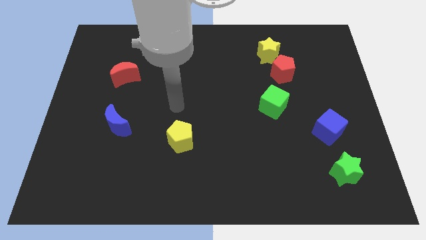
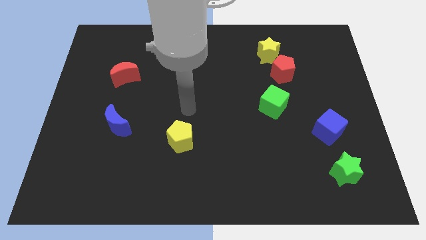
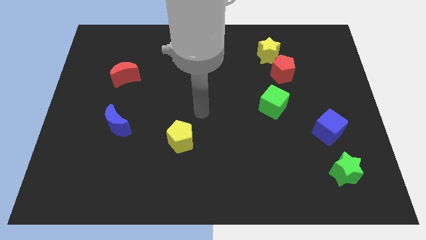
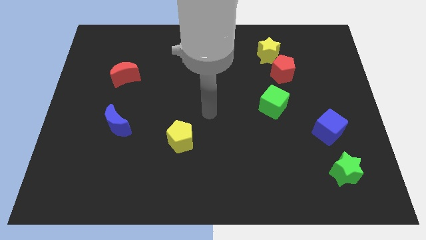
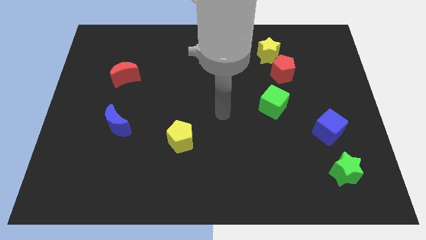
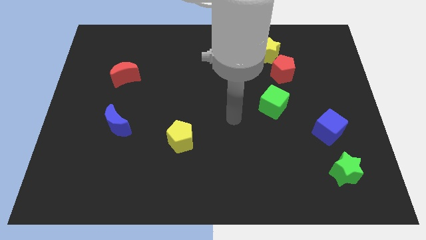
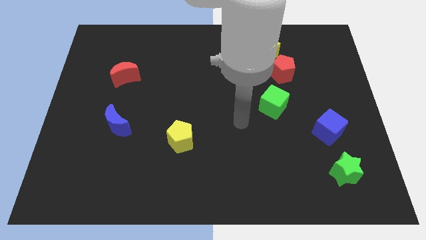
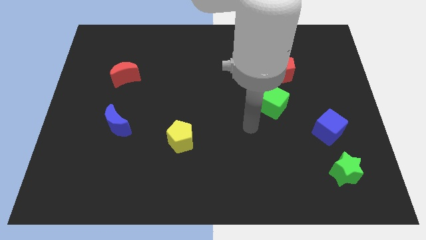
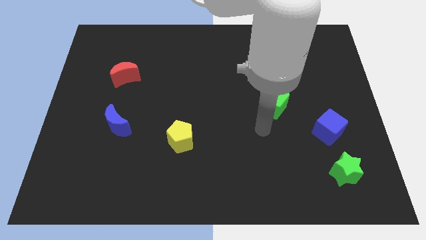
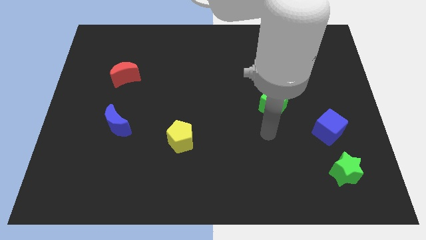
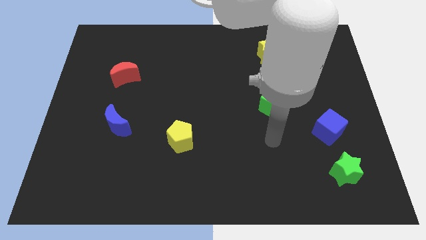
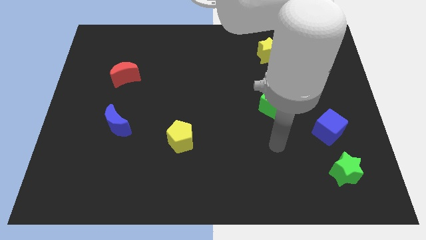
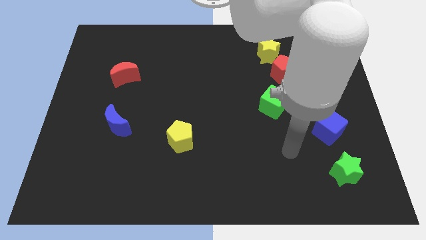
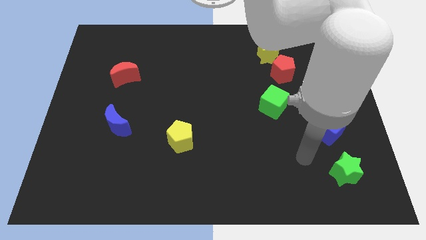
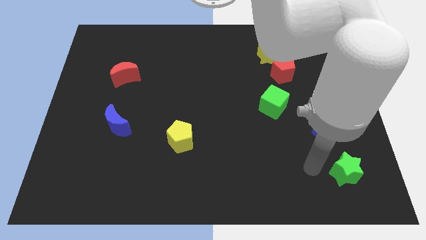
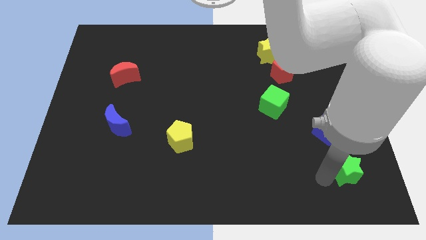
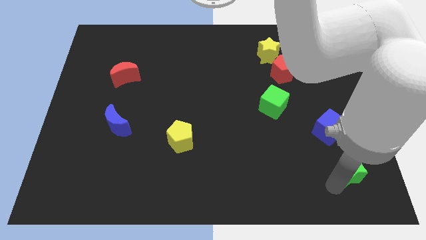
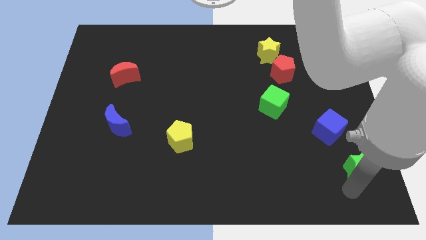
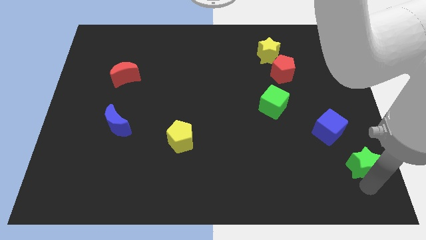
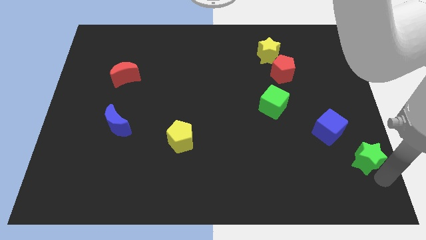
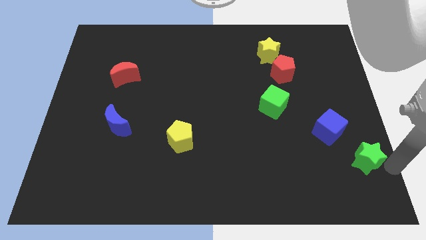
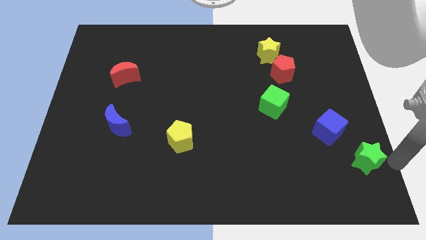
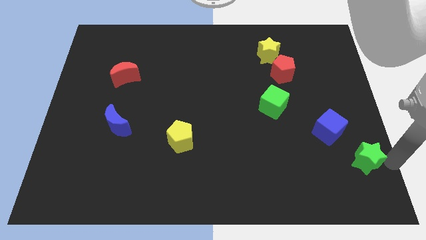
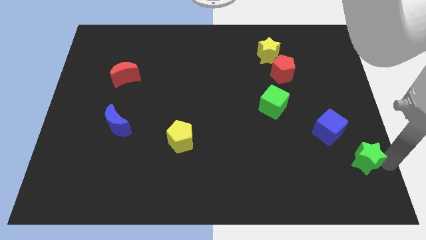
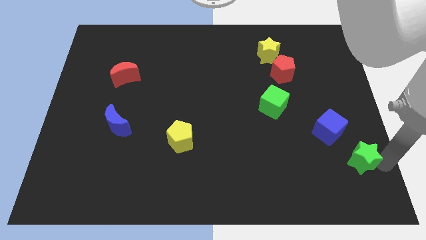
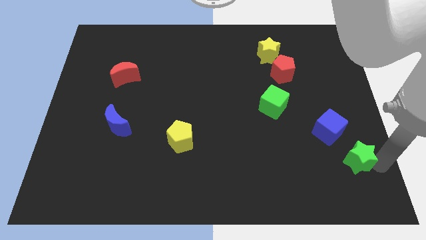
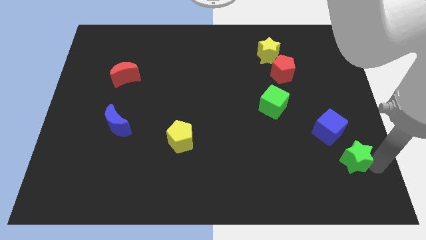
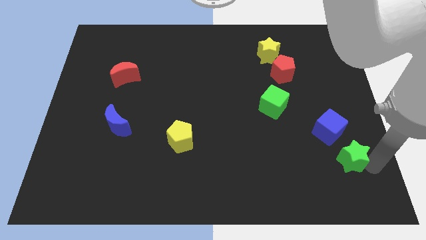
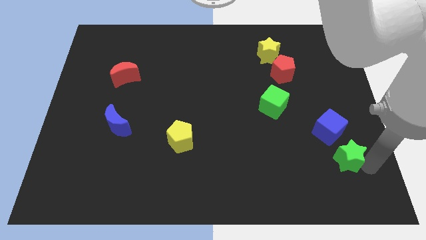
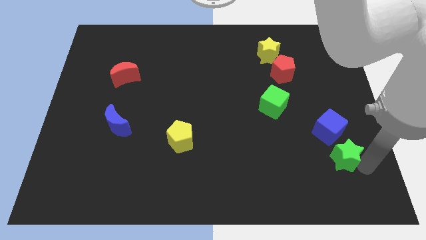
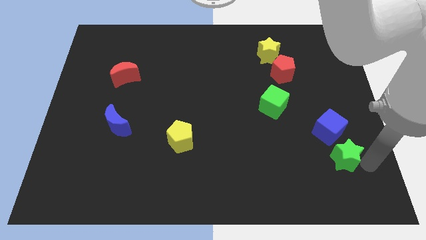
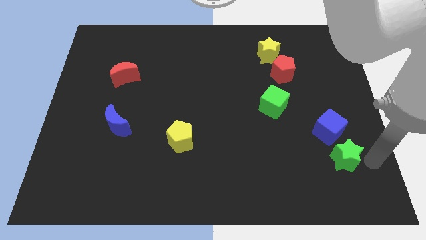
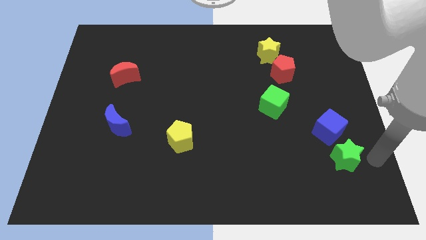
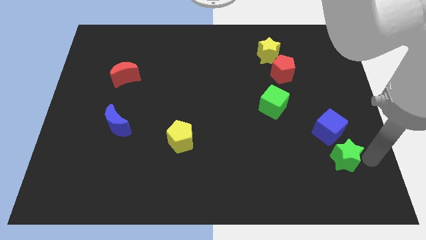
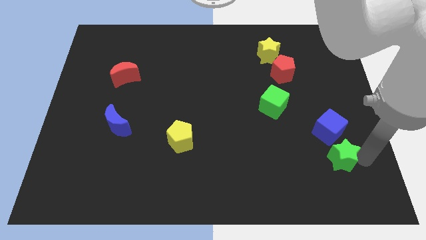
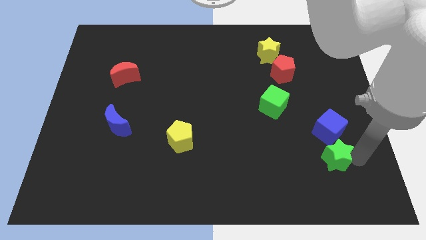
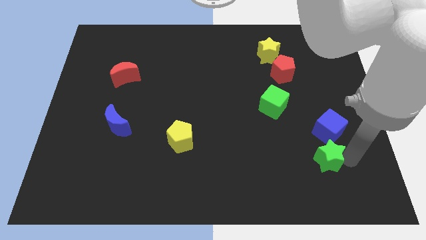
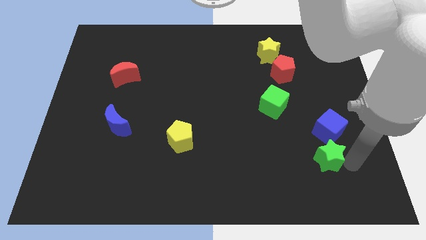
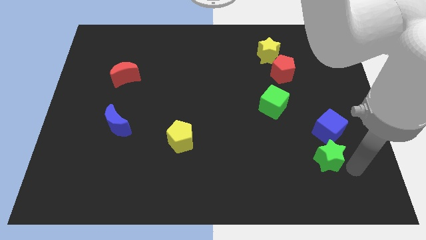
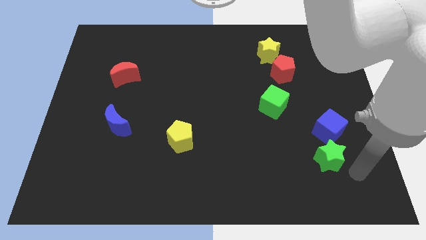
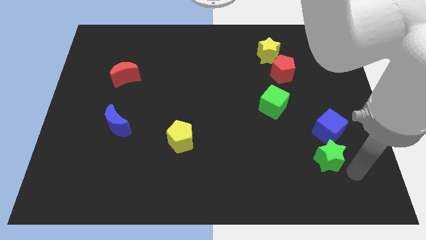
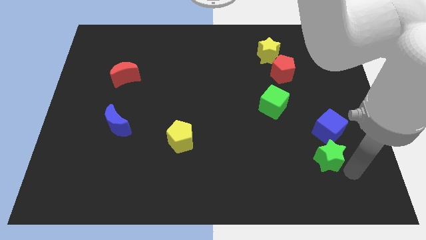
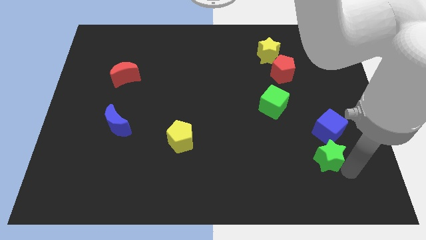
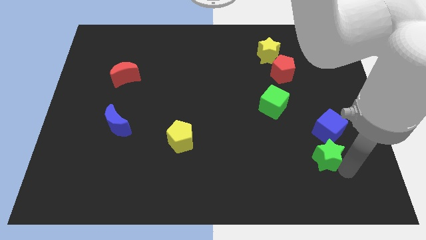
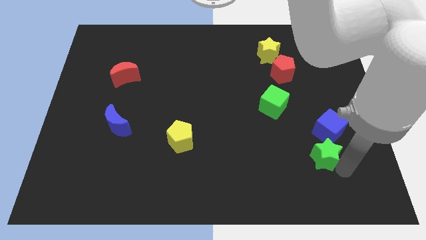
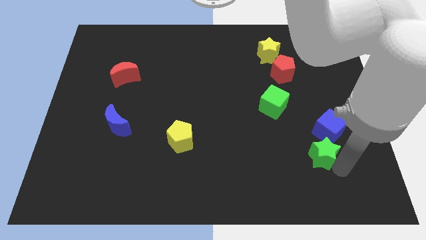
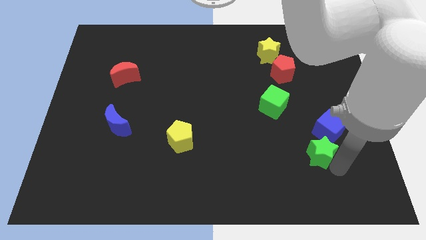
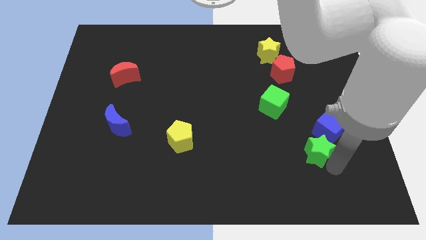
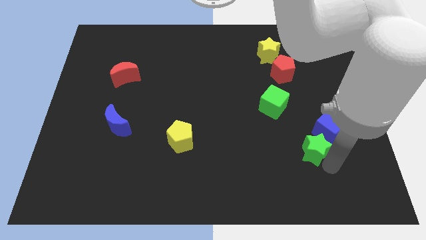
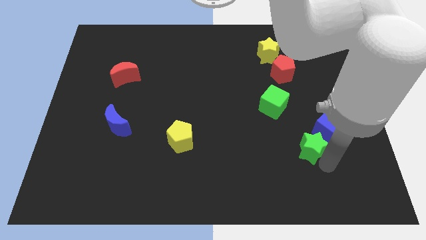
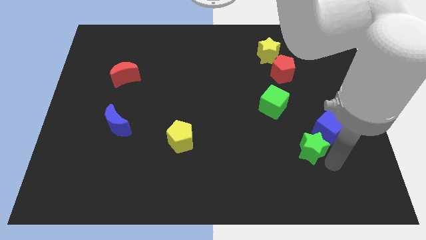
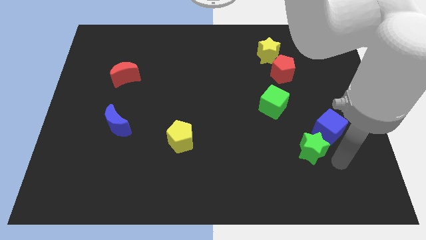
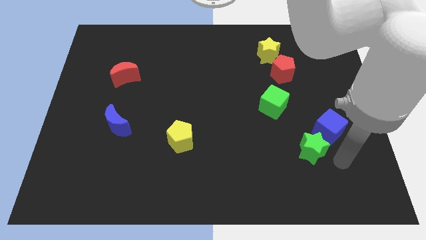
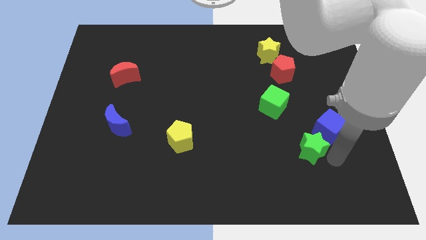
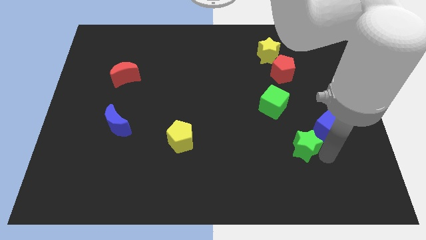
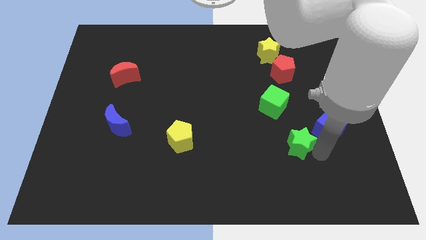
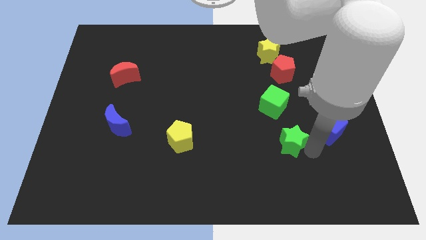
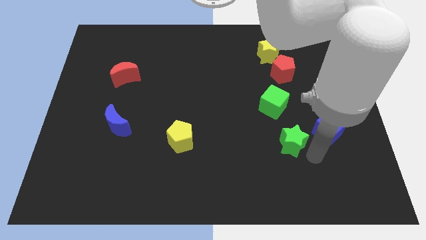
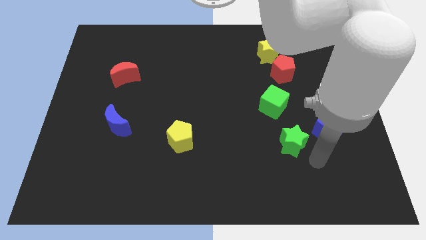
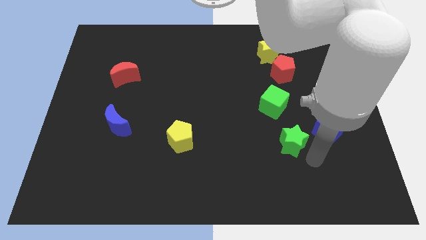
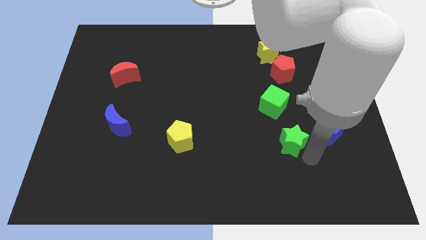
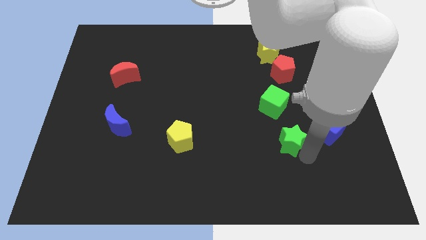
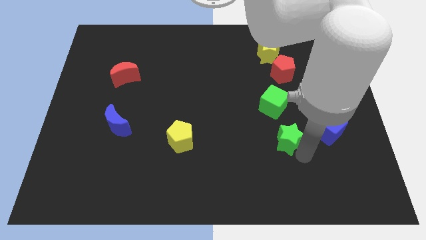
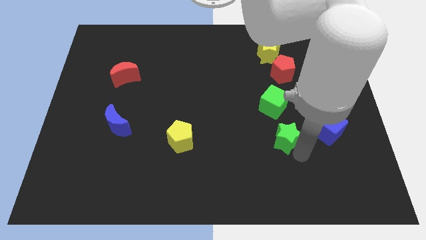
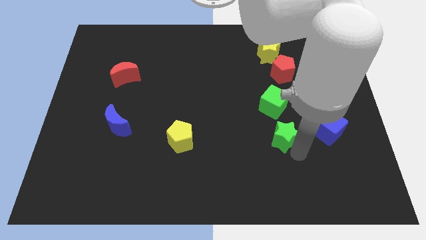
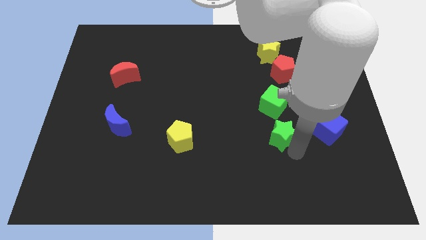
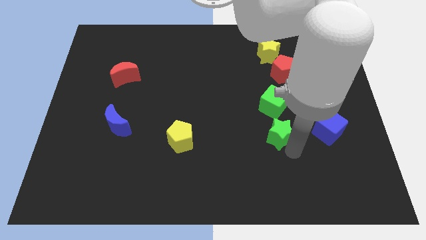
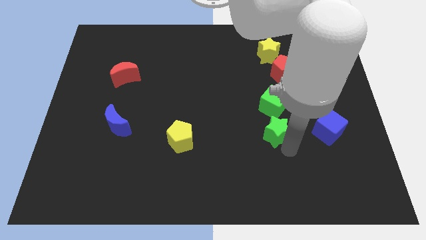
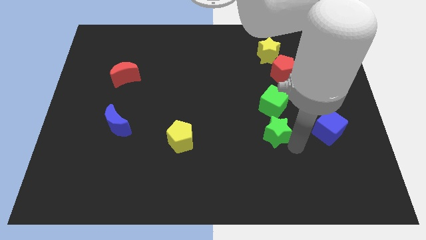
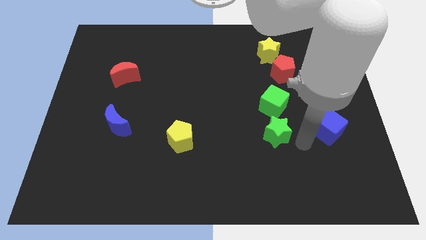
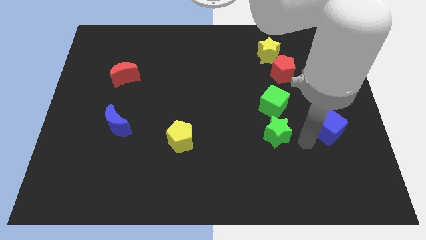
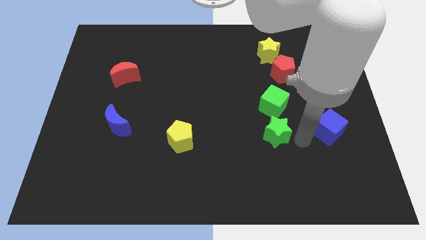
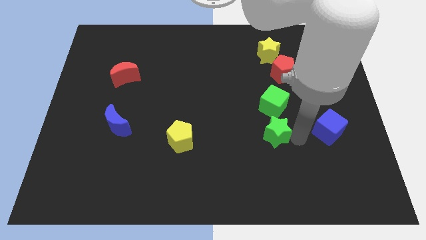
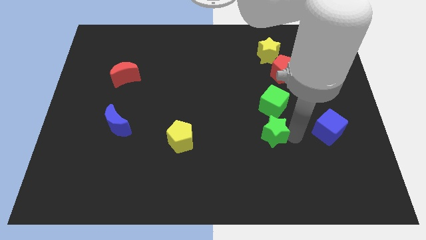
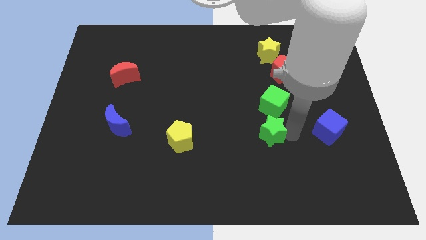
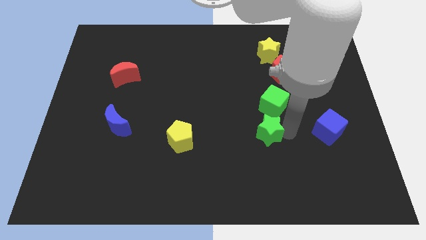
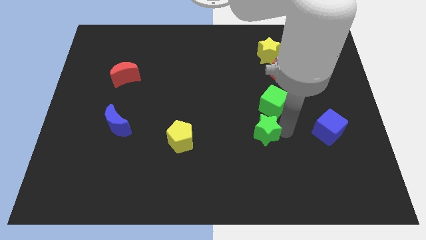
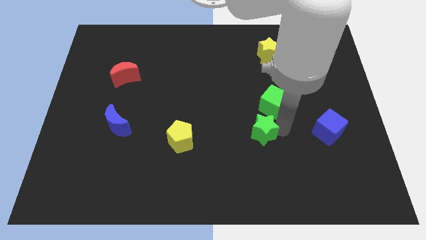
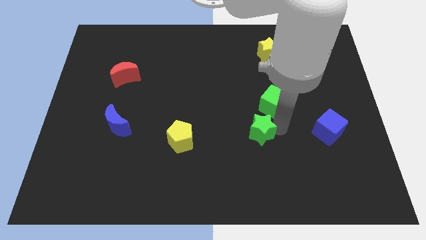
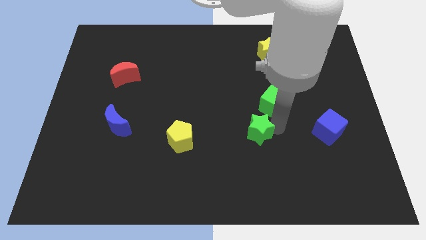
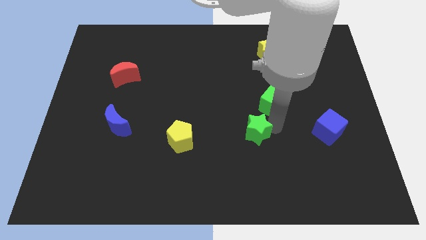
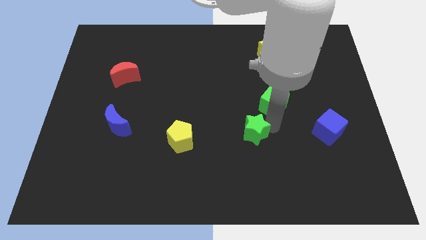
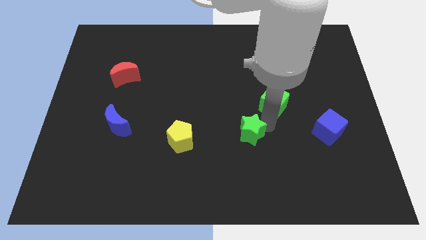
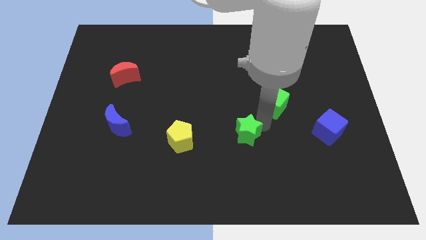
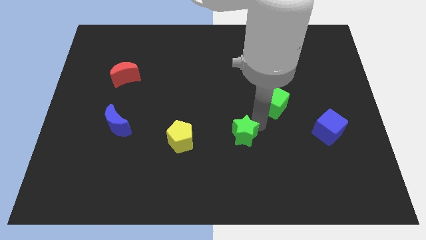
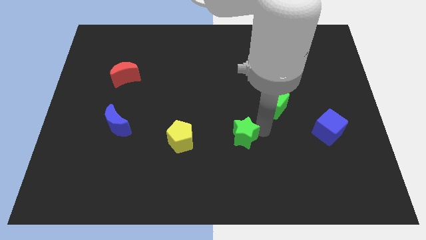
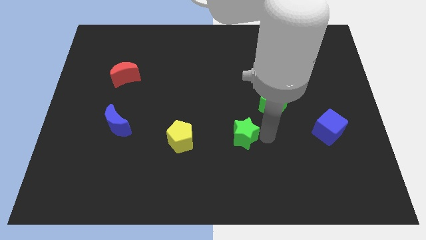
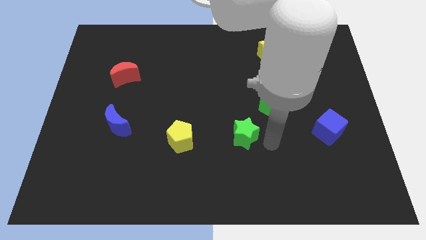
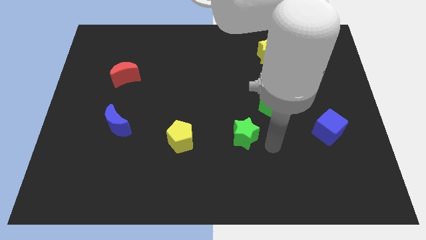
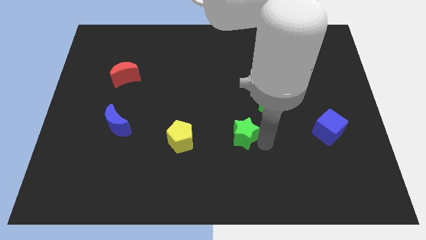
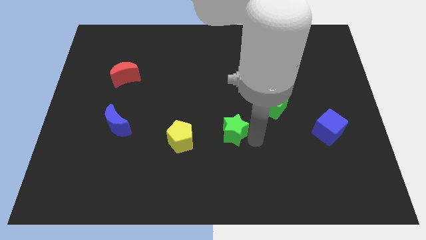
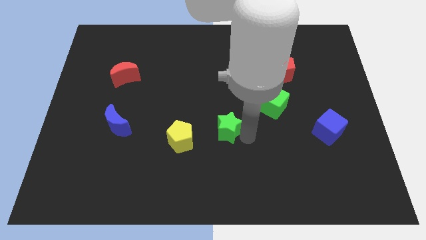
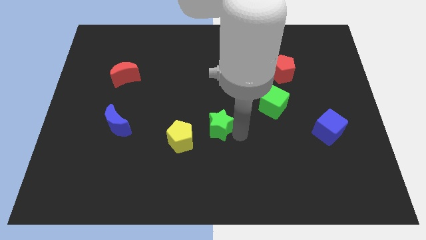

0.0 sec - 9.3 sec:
push the green star to the top right of the yellow pentagon
